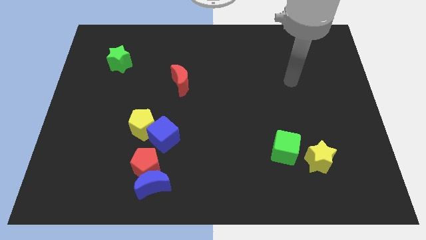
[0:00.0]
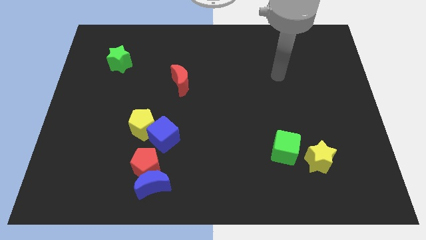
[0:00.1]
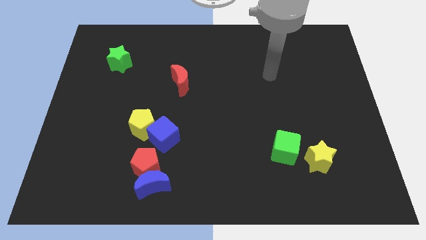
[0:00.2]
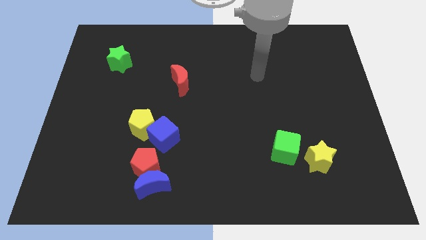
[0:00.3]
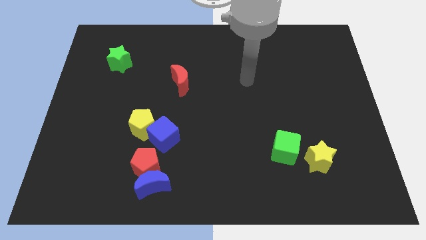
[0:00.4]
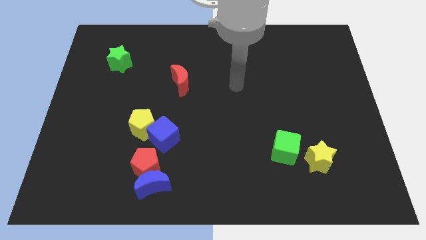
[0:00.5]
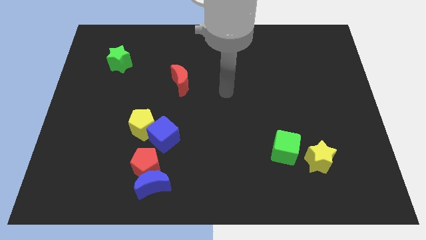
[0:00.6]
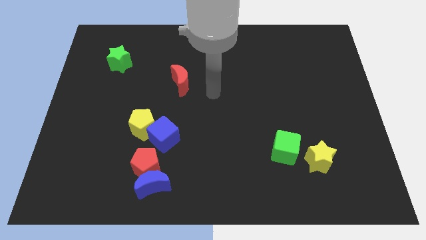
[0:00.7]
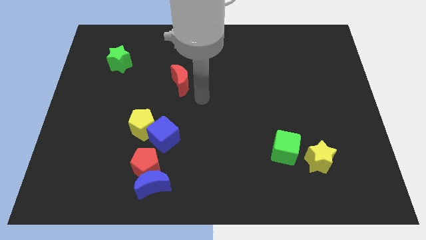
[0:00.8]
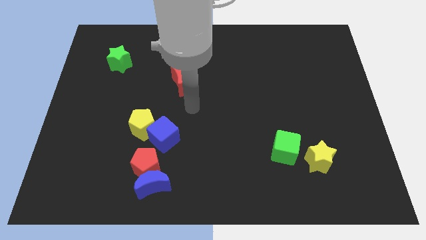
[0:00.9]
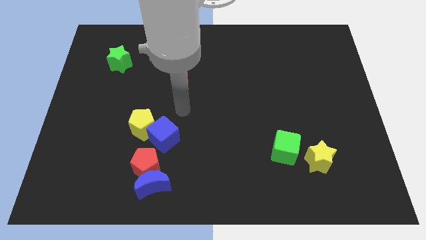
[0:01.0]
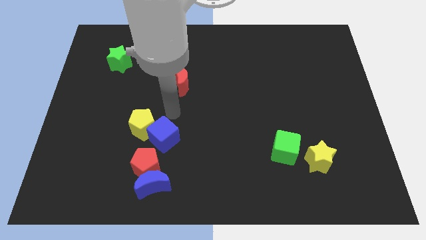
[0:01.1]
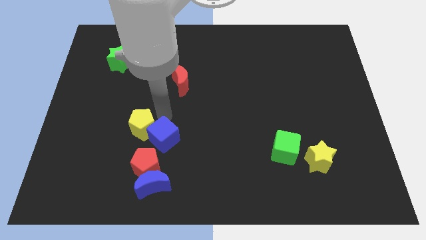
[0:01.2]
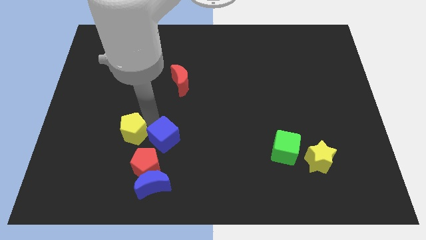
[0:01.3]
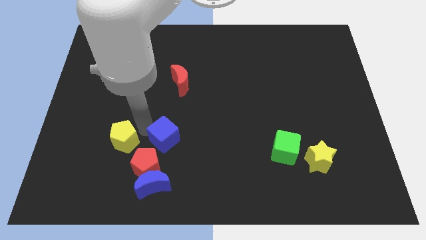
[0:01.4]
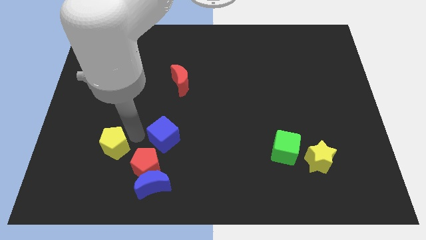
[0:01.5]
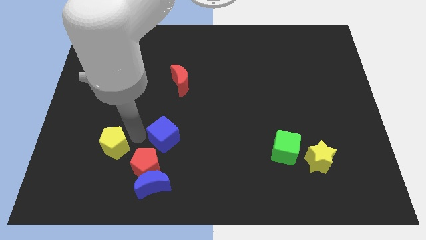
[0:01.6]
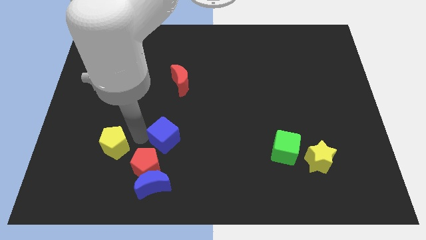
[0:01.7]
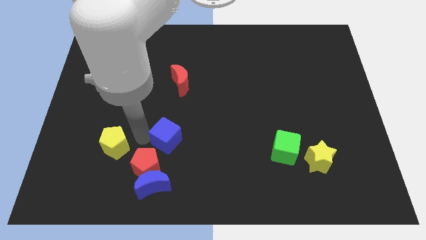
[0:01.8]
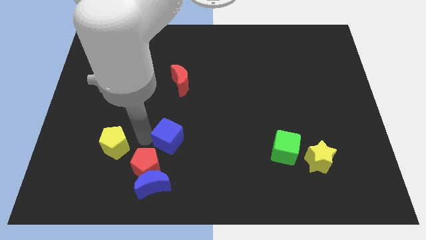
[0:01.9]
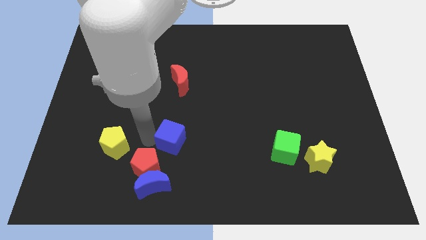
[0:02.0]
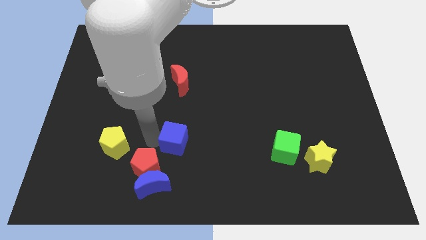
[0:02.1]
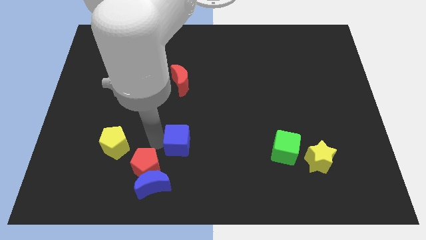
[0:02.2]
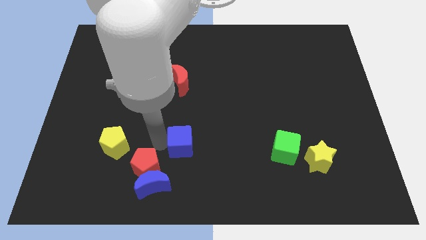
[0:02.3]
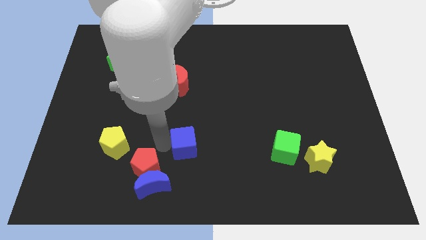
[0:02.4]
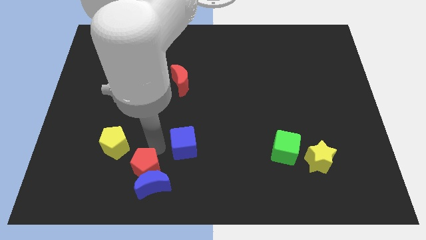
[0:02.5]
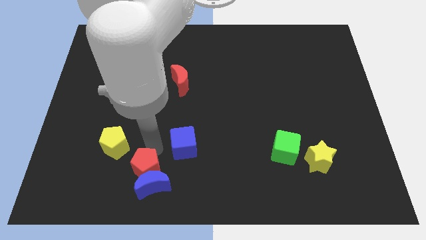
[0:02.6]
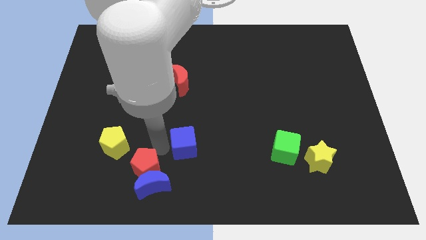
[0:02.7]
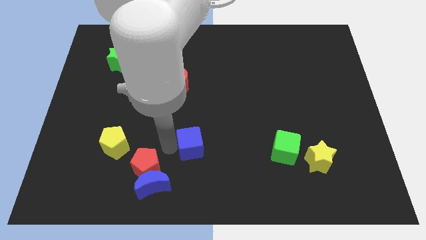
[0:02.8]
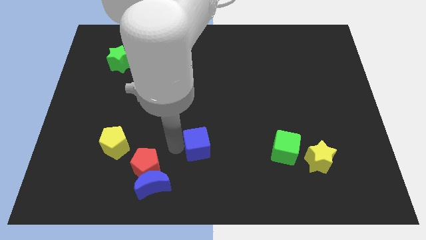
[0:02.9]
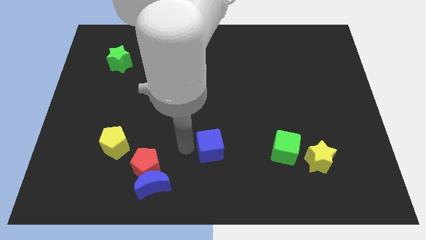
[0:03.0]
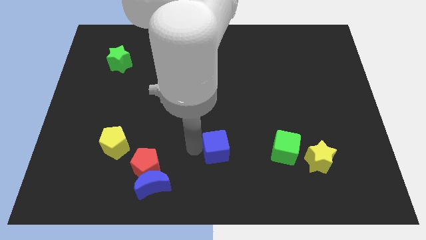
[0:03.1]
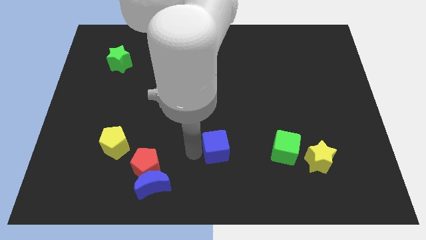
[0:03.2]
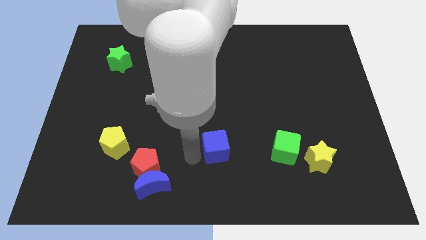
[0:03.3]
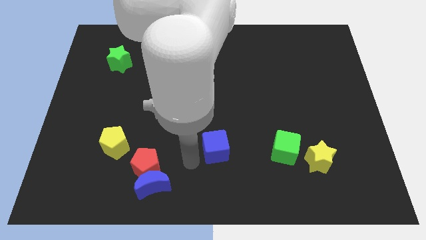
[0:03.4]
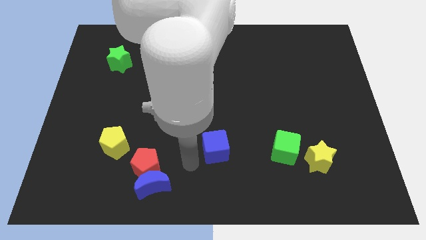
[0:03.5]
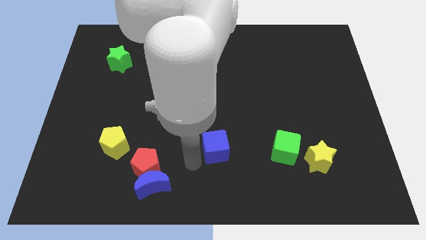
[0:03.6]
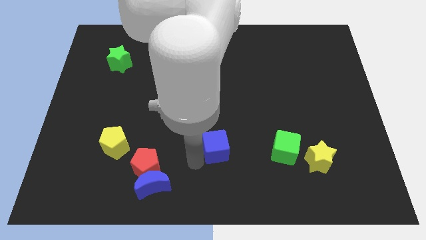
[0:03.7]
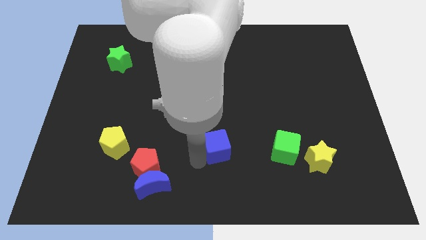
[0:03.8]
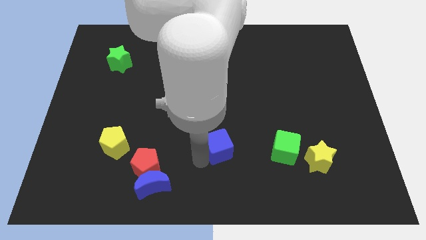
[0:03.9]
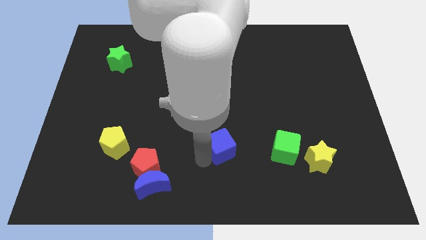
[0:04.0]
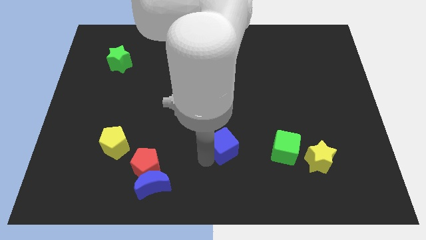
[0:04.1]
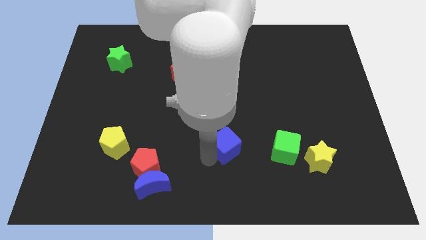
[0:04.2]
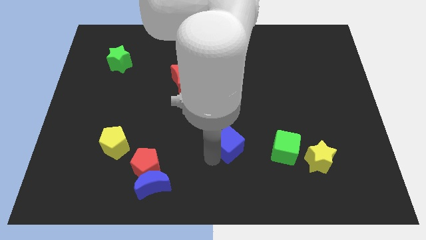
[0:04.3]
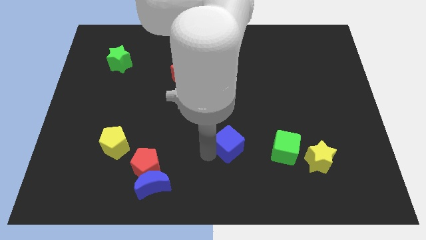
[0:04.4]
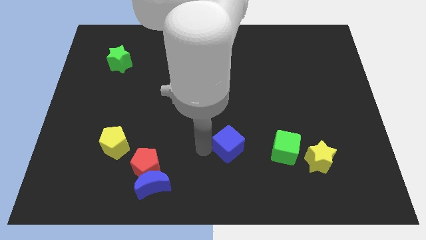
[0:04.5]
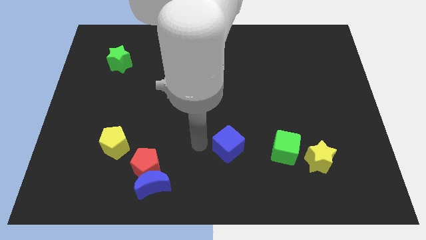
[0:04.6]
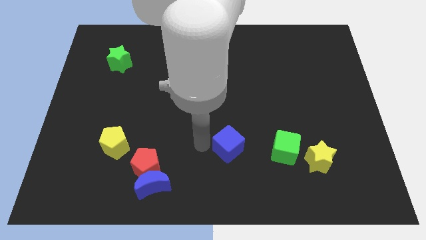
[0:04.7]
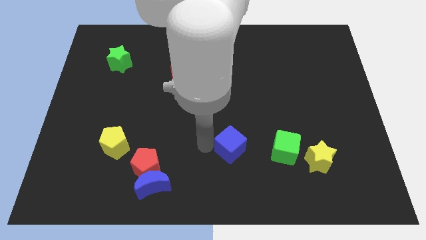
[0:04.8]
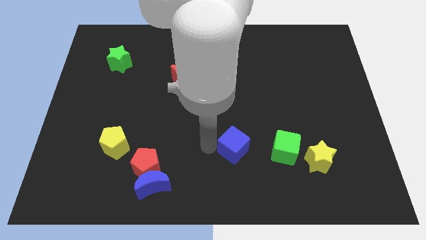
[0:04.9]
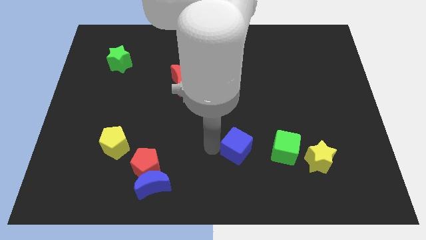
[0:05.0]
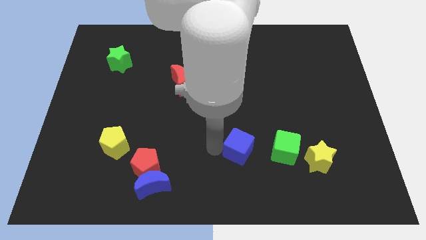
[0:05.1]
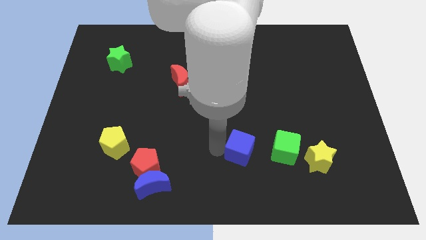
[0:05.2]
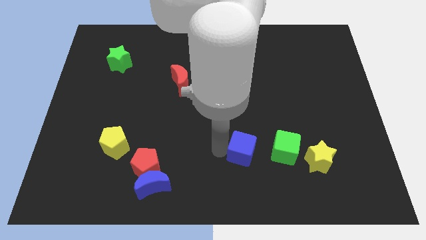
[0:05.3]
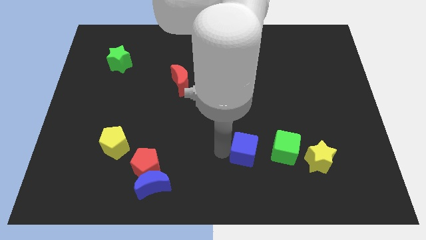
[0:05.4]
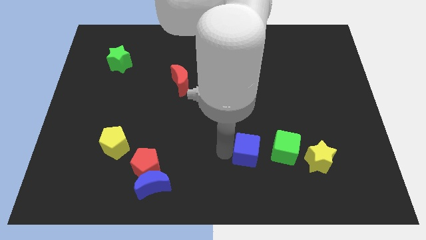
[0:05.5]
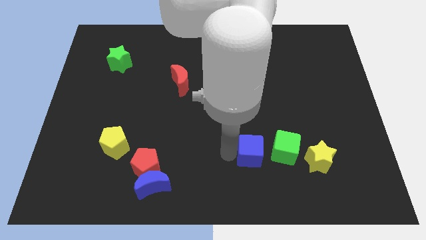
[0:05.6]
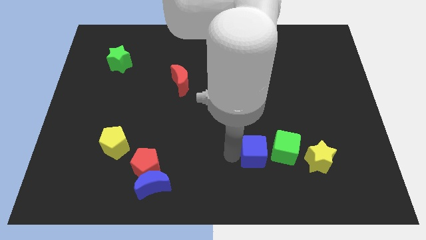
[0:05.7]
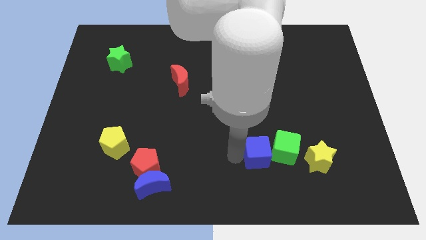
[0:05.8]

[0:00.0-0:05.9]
move the blue cube next to the green cube

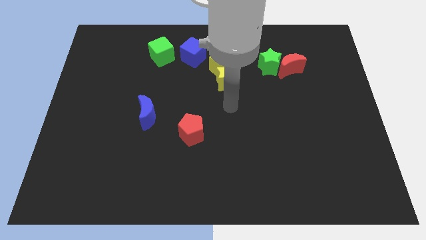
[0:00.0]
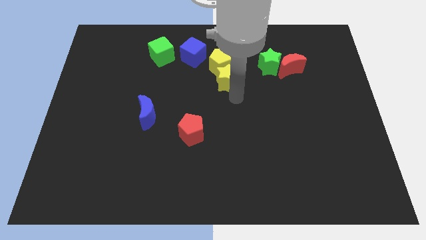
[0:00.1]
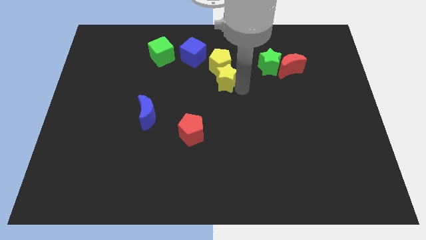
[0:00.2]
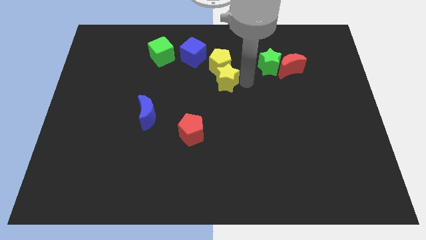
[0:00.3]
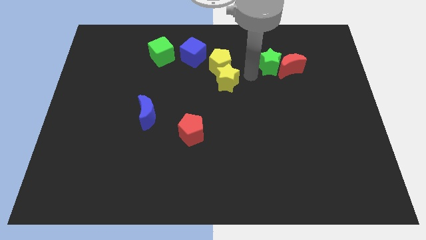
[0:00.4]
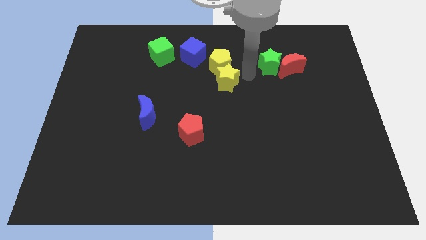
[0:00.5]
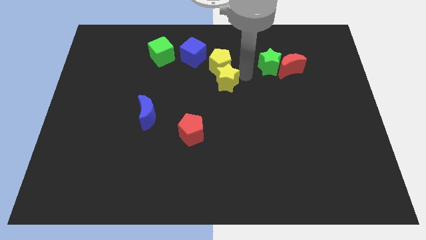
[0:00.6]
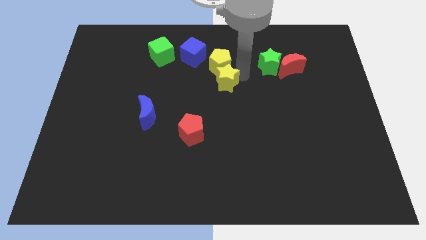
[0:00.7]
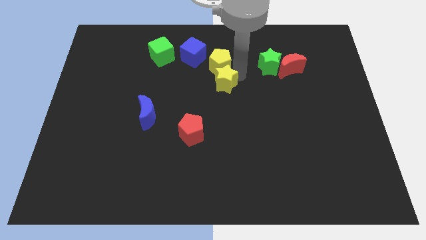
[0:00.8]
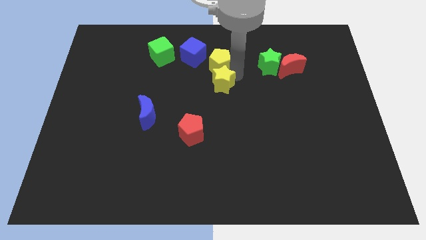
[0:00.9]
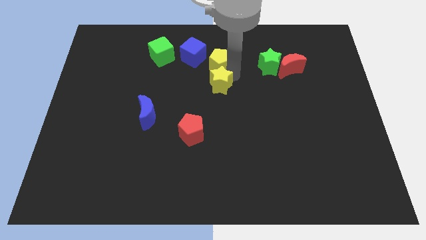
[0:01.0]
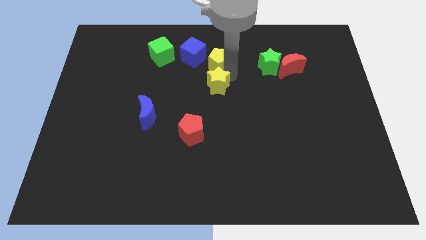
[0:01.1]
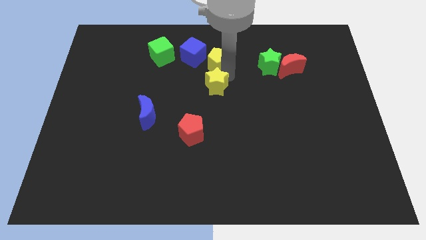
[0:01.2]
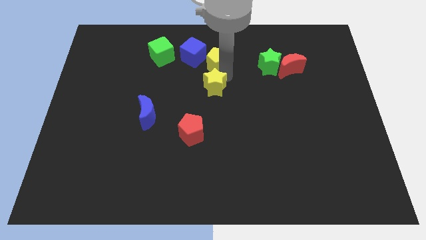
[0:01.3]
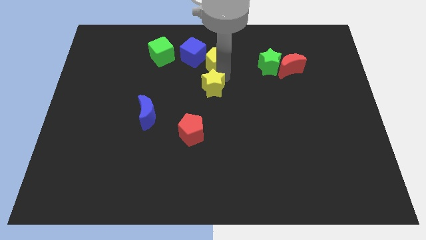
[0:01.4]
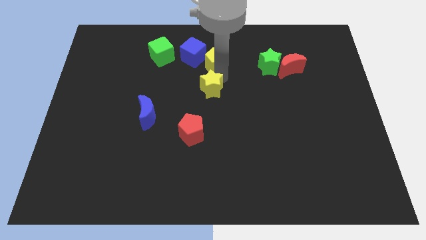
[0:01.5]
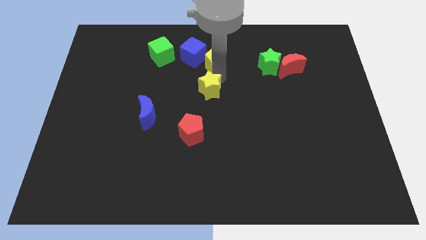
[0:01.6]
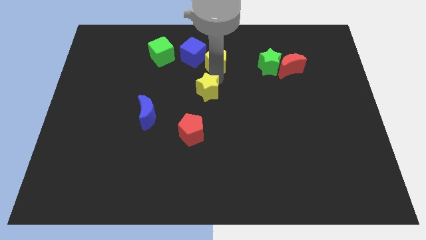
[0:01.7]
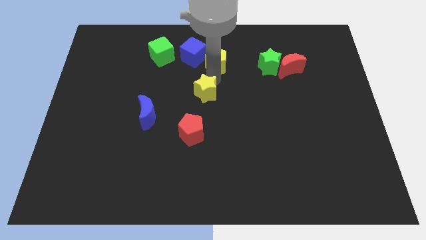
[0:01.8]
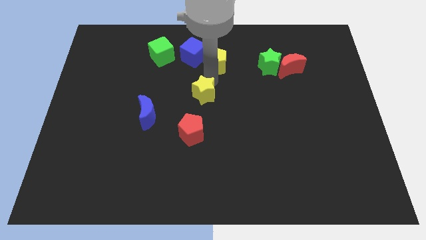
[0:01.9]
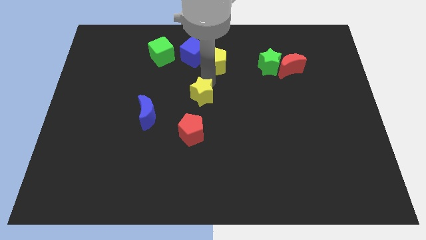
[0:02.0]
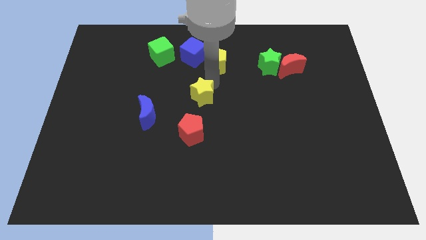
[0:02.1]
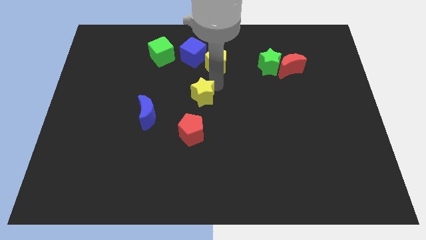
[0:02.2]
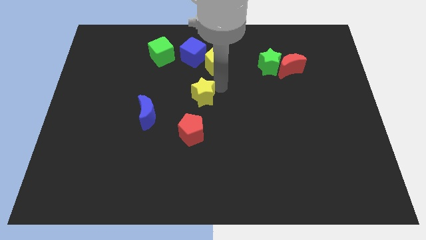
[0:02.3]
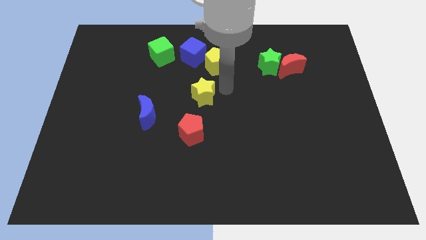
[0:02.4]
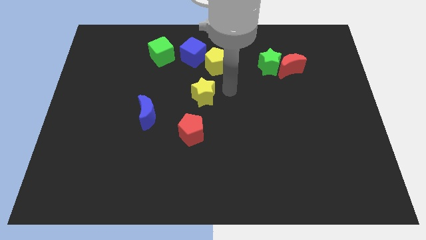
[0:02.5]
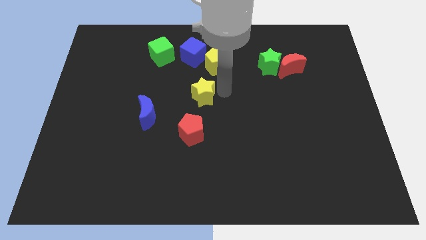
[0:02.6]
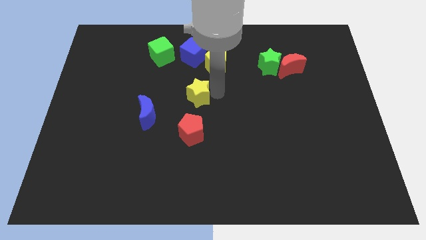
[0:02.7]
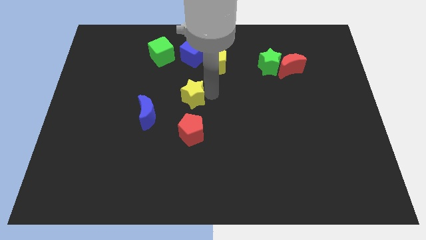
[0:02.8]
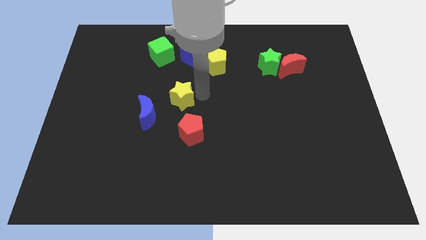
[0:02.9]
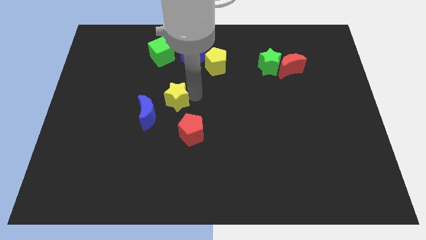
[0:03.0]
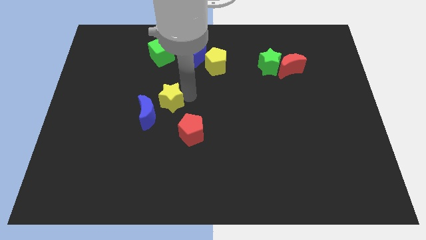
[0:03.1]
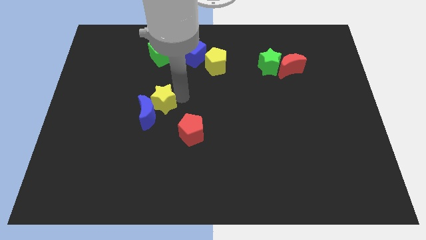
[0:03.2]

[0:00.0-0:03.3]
put the yellow star to the blue moon
